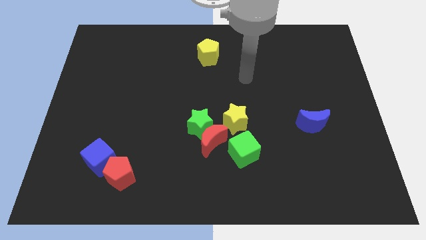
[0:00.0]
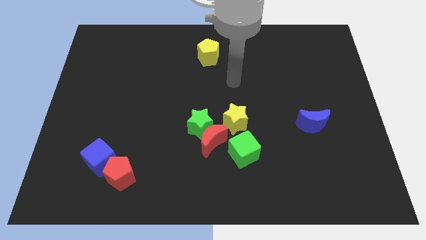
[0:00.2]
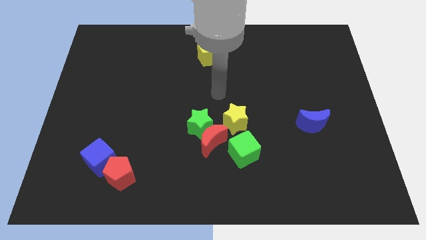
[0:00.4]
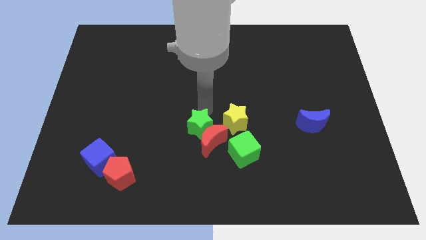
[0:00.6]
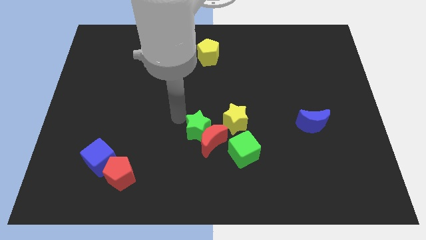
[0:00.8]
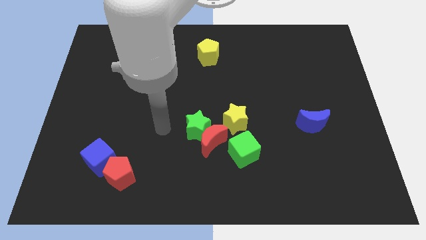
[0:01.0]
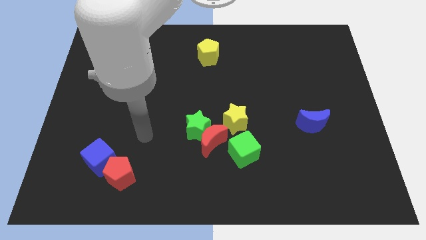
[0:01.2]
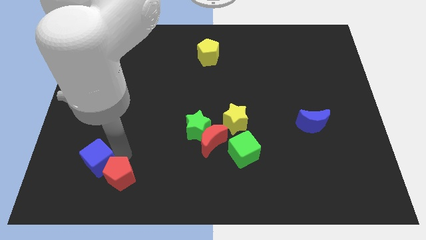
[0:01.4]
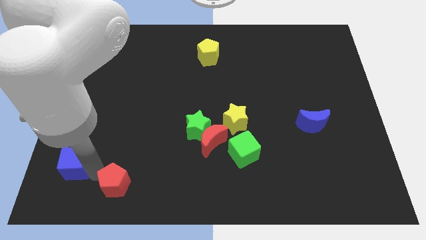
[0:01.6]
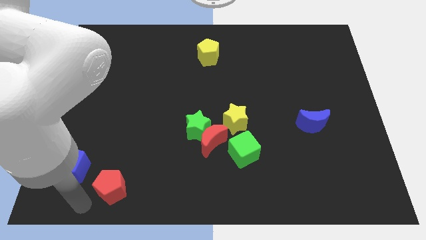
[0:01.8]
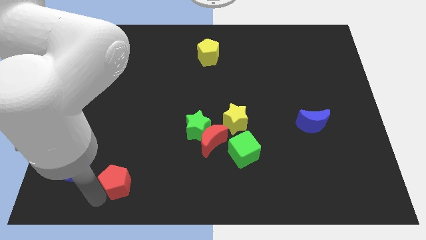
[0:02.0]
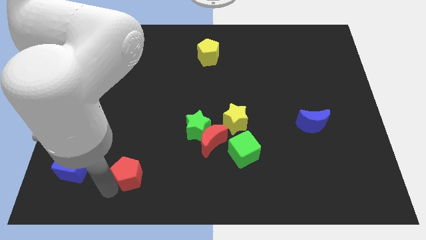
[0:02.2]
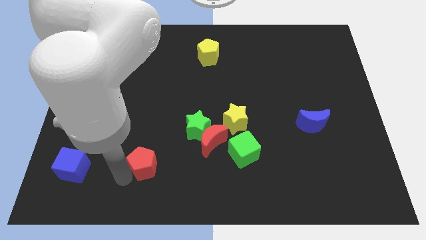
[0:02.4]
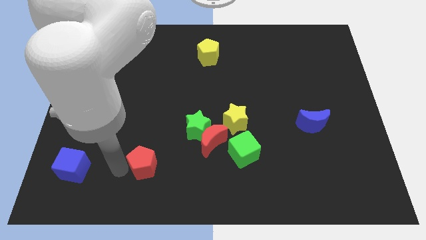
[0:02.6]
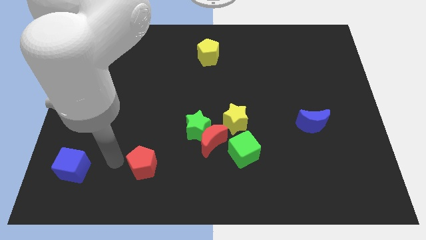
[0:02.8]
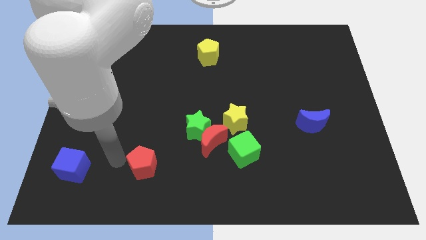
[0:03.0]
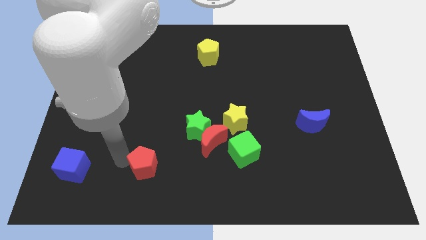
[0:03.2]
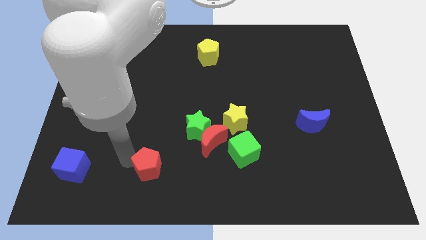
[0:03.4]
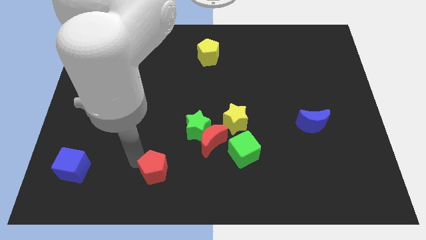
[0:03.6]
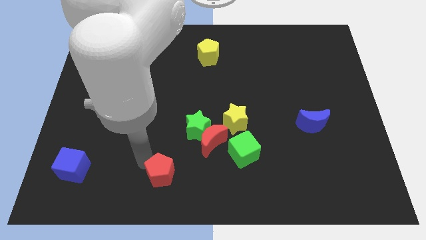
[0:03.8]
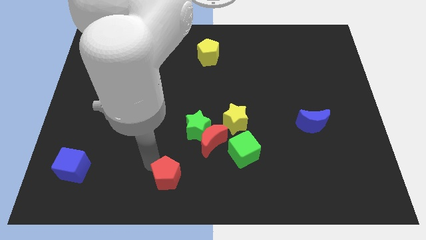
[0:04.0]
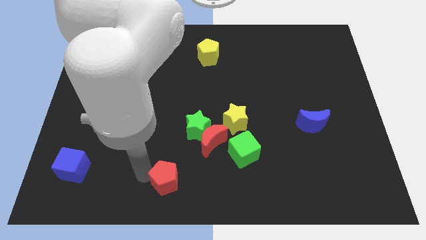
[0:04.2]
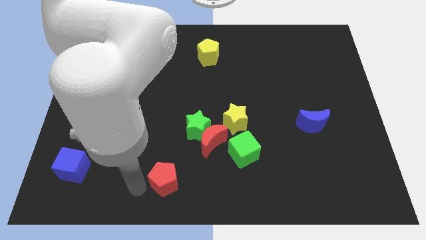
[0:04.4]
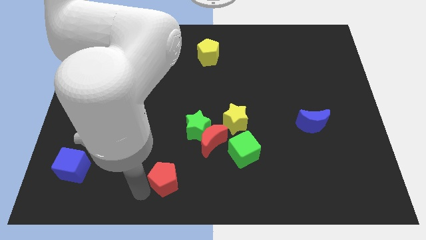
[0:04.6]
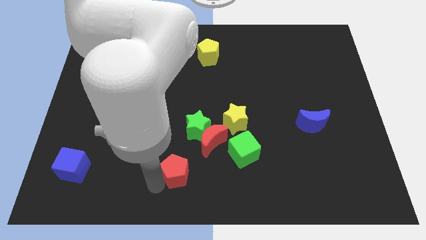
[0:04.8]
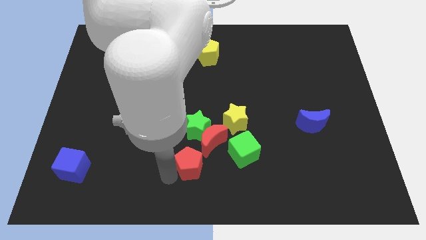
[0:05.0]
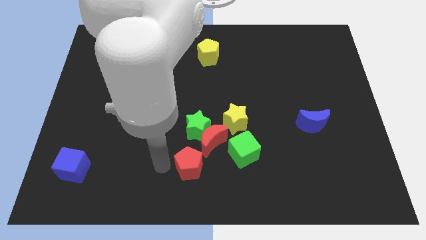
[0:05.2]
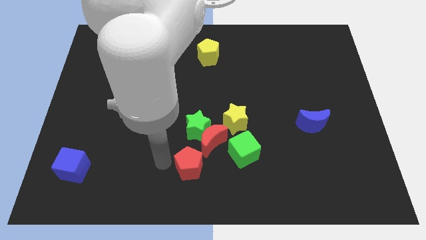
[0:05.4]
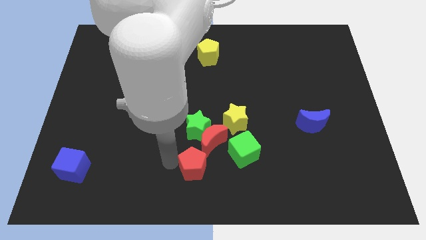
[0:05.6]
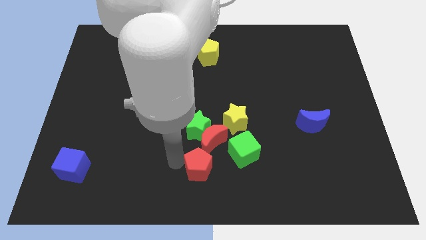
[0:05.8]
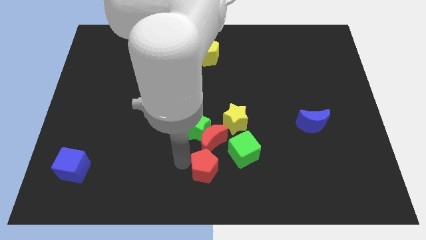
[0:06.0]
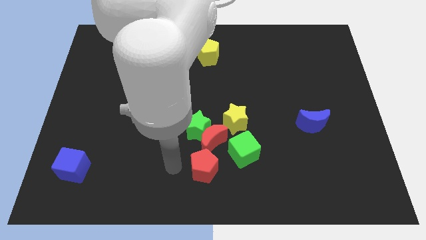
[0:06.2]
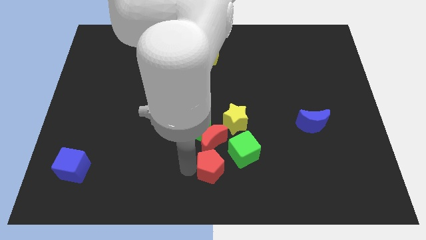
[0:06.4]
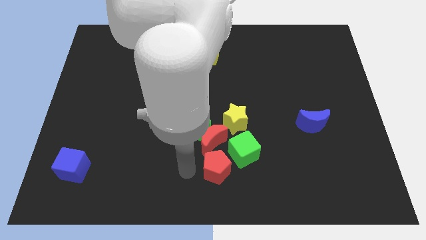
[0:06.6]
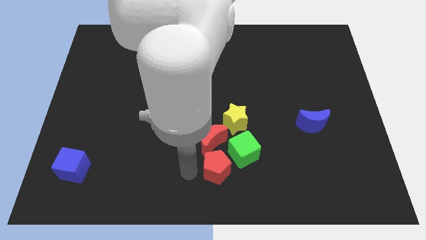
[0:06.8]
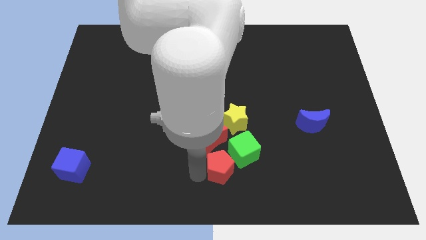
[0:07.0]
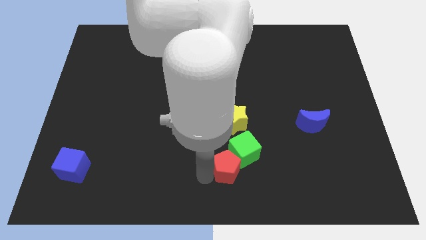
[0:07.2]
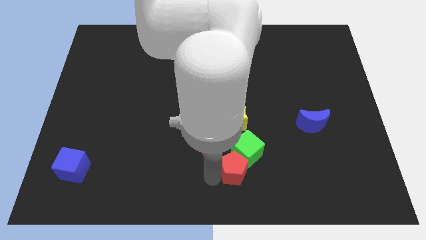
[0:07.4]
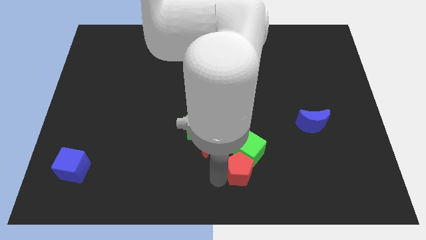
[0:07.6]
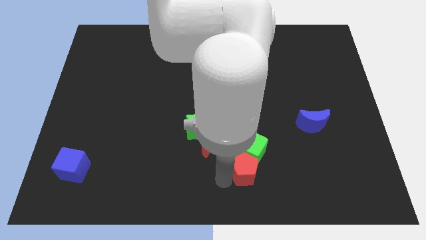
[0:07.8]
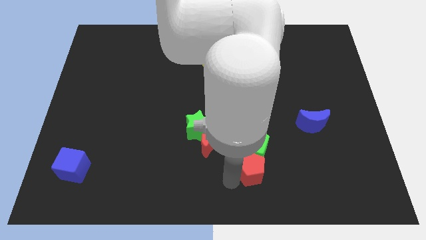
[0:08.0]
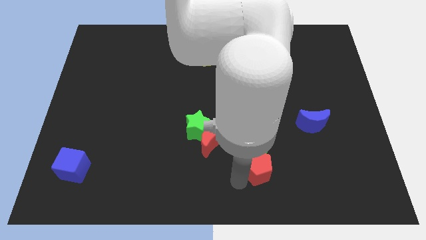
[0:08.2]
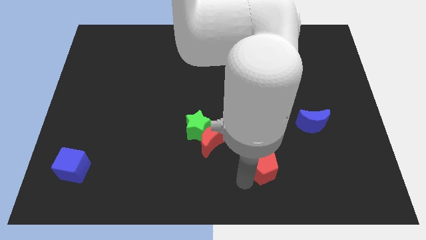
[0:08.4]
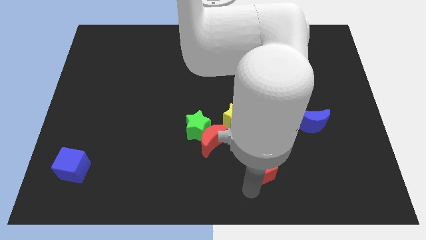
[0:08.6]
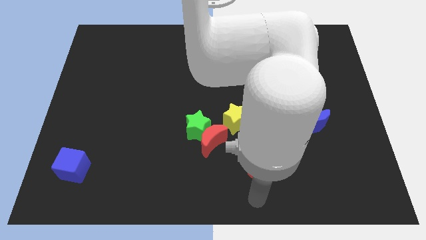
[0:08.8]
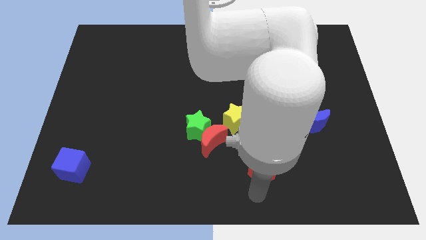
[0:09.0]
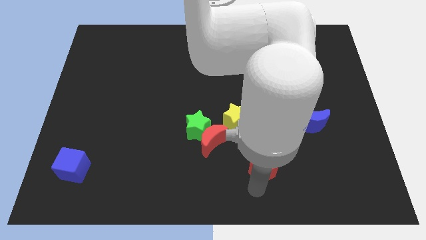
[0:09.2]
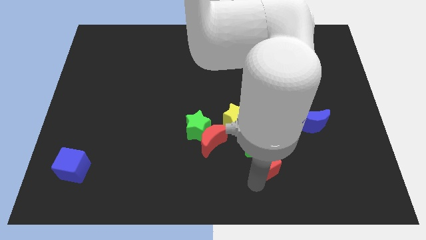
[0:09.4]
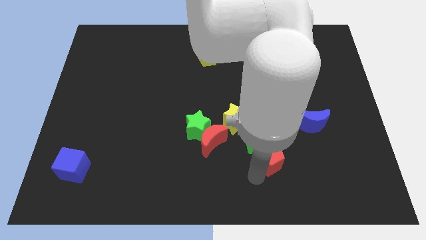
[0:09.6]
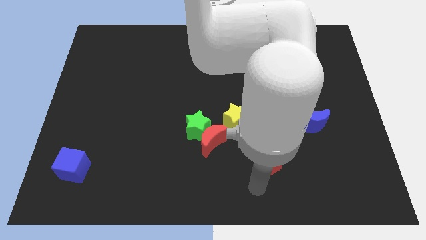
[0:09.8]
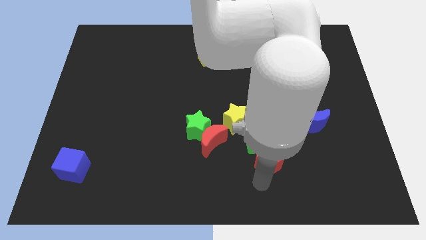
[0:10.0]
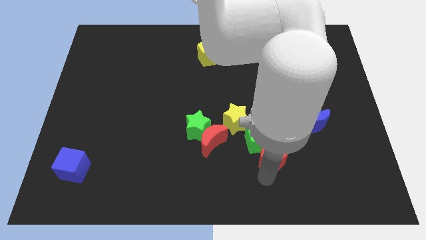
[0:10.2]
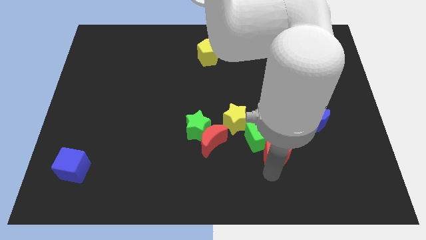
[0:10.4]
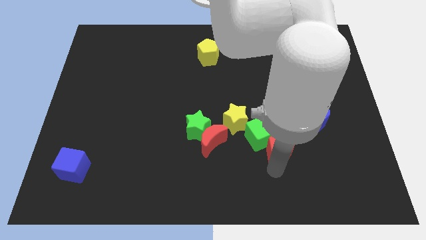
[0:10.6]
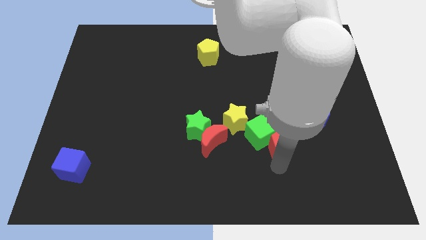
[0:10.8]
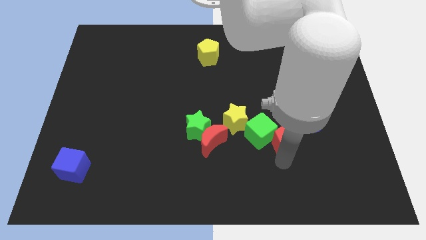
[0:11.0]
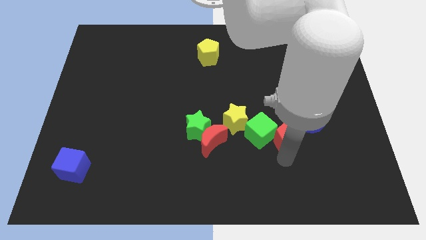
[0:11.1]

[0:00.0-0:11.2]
move the red pentagon just right of the yellow star

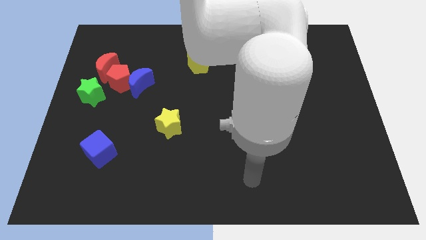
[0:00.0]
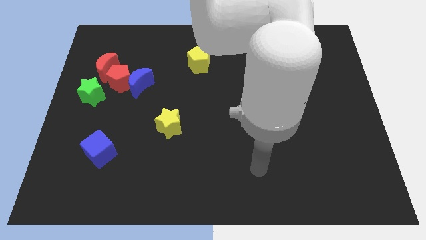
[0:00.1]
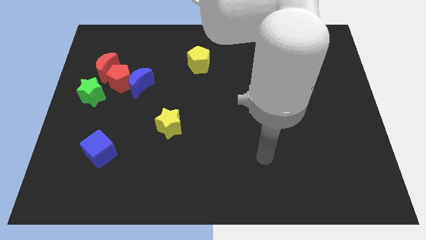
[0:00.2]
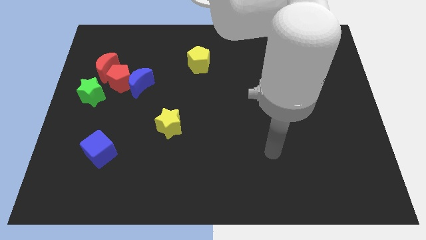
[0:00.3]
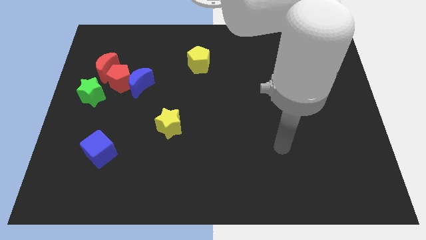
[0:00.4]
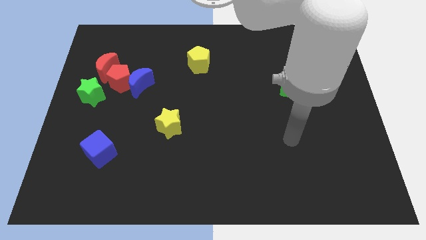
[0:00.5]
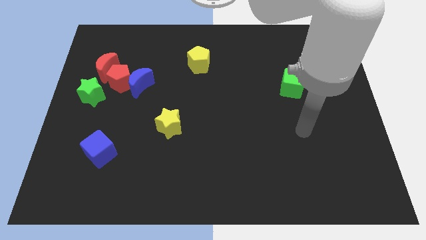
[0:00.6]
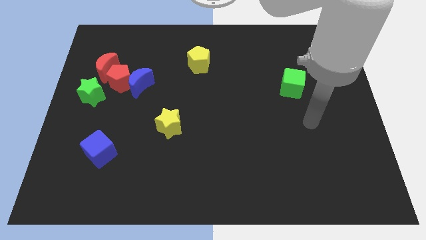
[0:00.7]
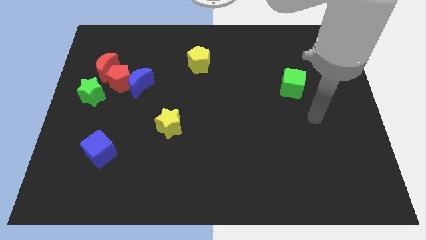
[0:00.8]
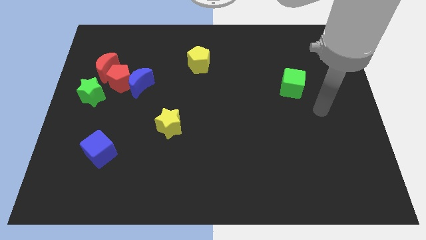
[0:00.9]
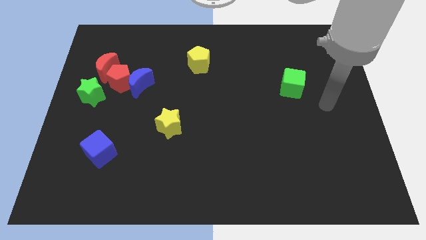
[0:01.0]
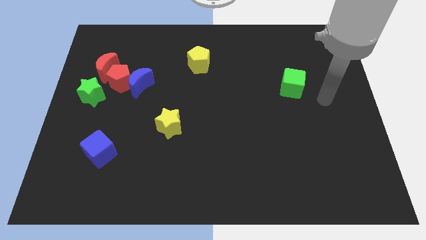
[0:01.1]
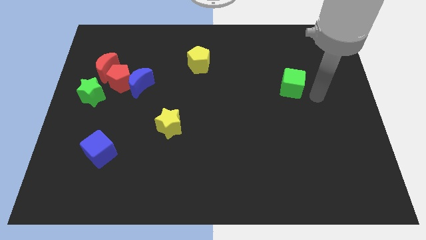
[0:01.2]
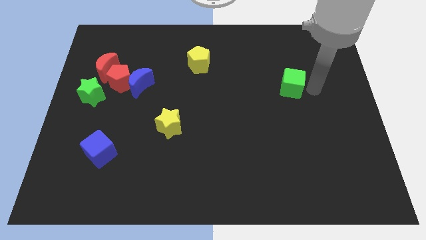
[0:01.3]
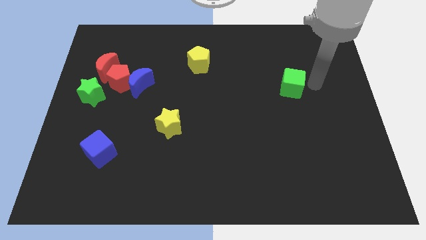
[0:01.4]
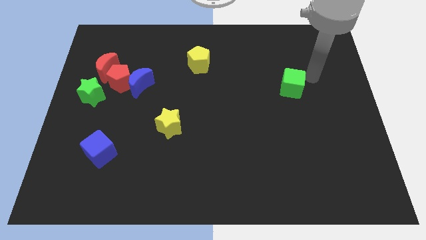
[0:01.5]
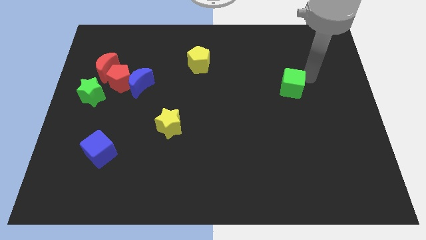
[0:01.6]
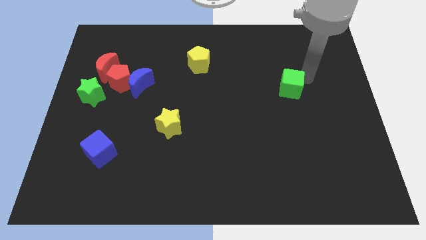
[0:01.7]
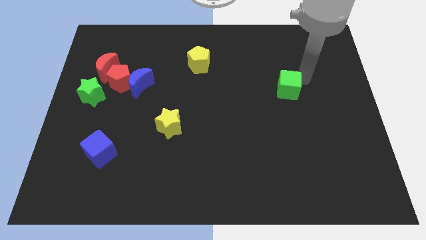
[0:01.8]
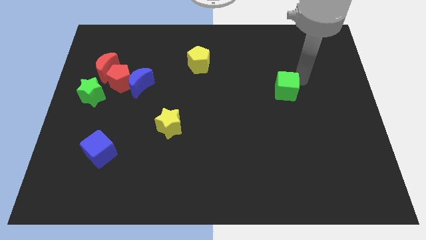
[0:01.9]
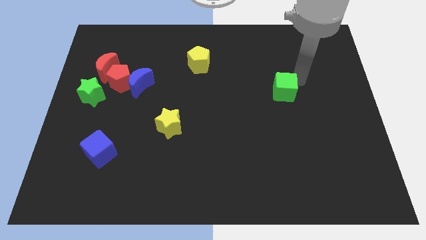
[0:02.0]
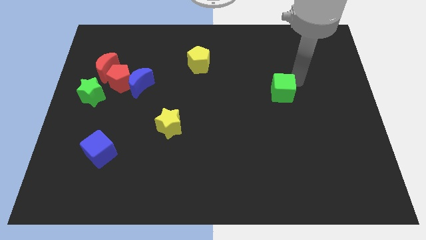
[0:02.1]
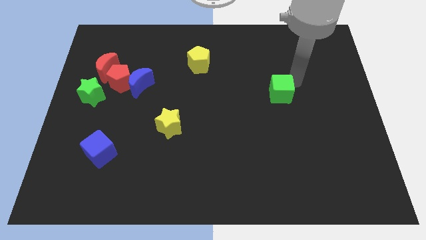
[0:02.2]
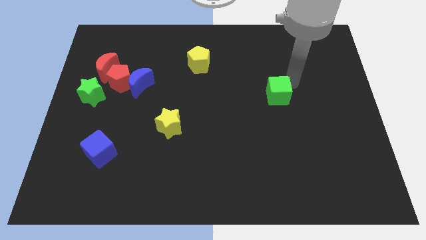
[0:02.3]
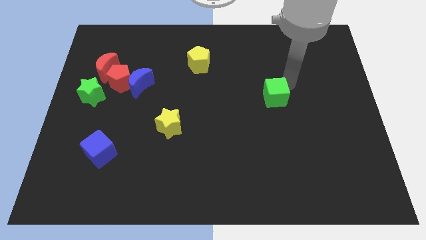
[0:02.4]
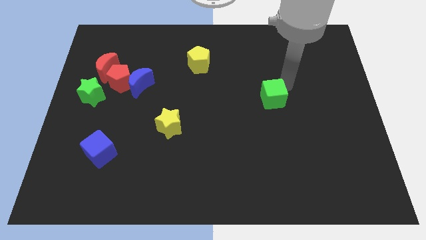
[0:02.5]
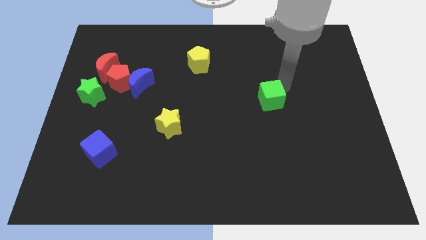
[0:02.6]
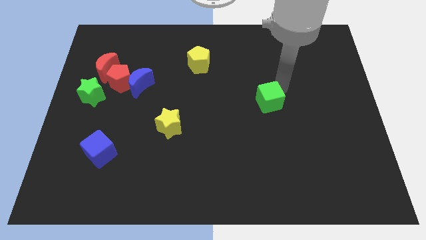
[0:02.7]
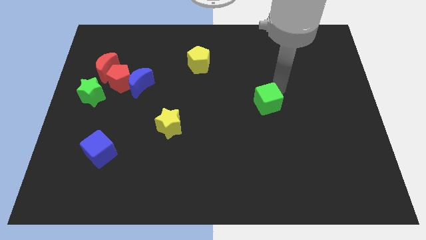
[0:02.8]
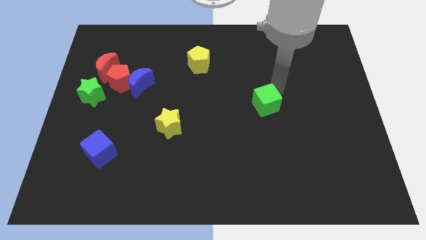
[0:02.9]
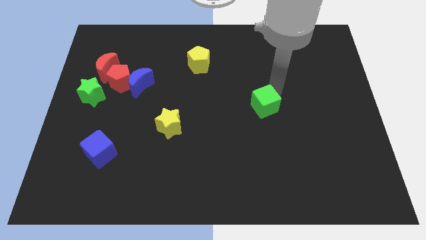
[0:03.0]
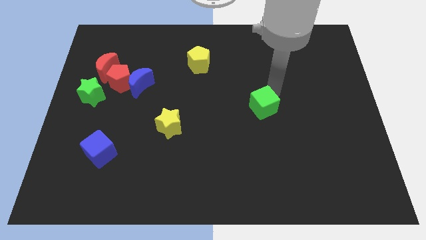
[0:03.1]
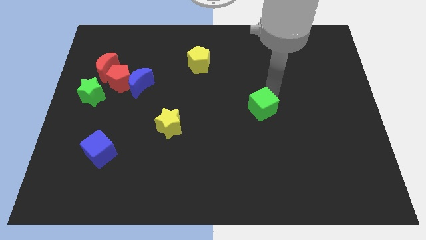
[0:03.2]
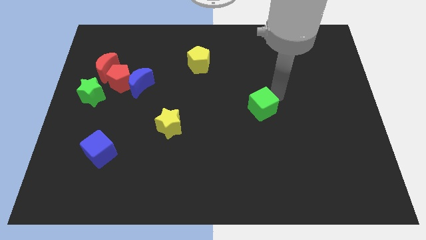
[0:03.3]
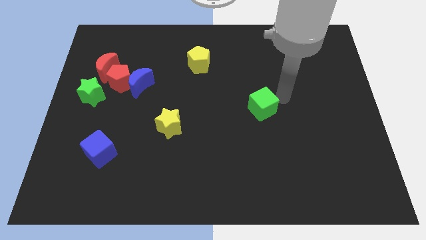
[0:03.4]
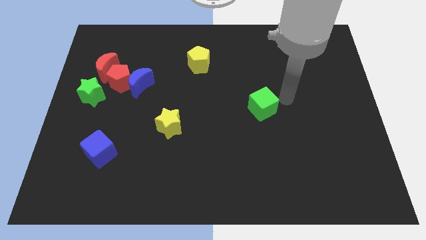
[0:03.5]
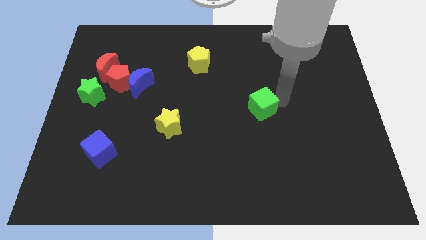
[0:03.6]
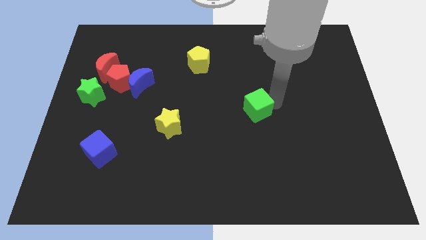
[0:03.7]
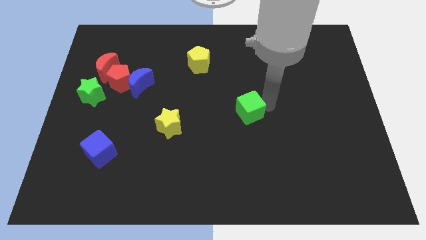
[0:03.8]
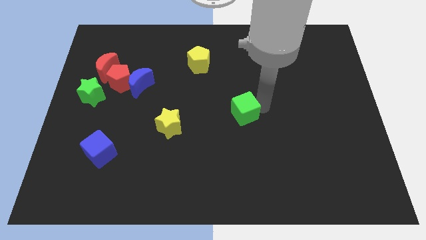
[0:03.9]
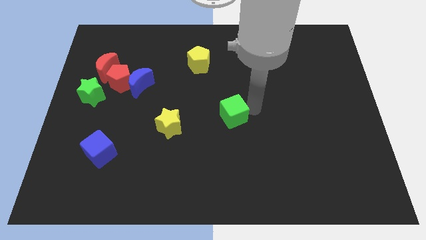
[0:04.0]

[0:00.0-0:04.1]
slide the green cube to the right side of the yellow star
